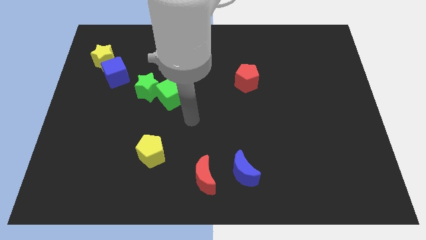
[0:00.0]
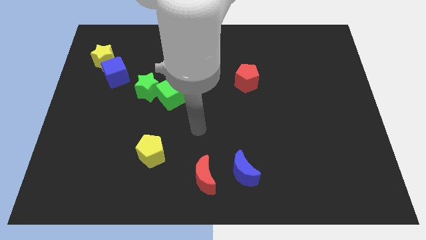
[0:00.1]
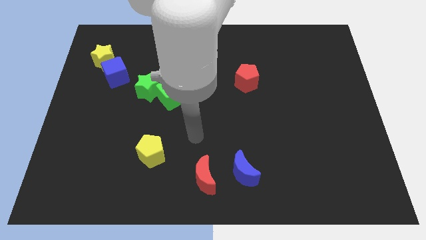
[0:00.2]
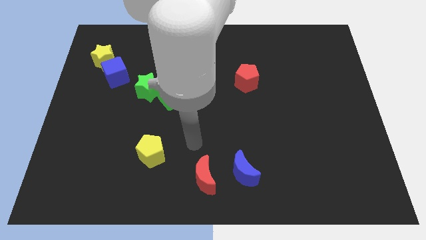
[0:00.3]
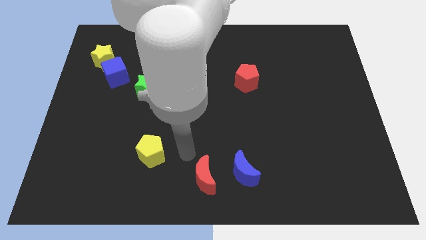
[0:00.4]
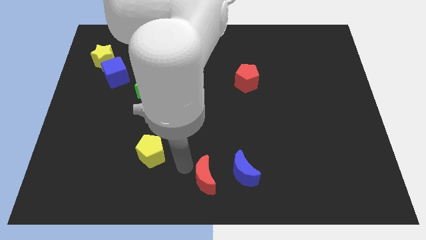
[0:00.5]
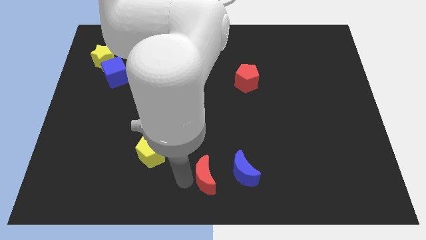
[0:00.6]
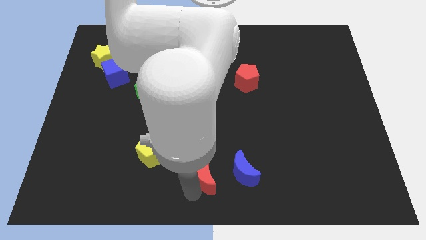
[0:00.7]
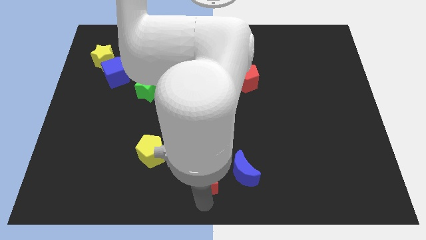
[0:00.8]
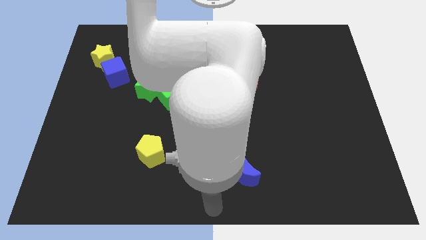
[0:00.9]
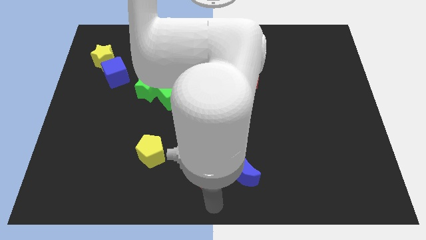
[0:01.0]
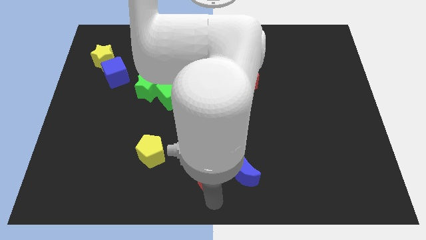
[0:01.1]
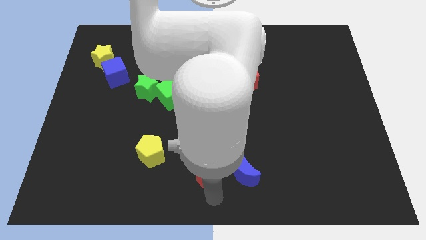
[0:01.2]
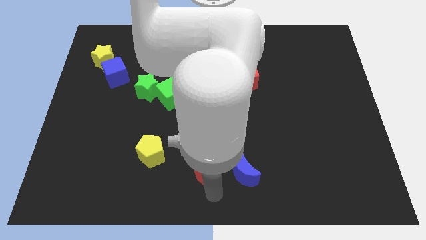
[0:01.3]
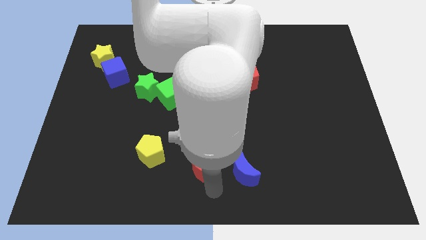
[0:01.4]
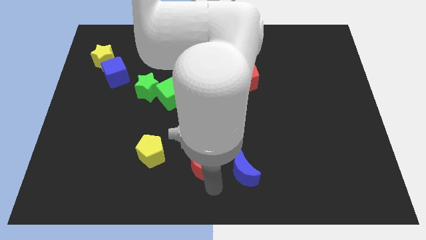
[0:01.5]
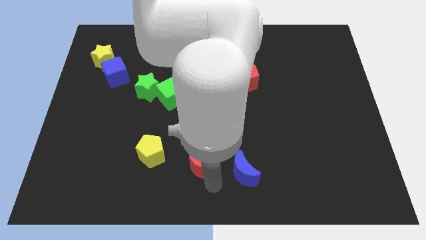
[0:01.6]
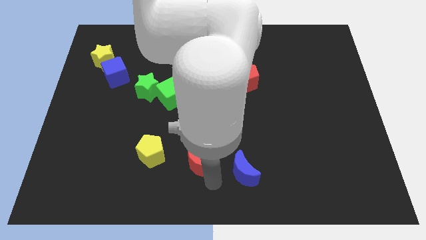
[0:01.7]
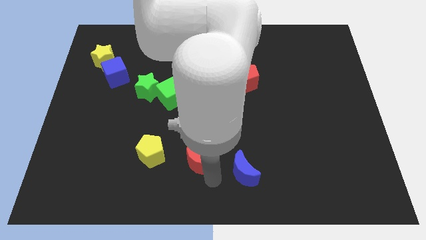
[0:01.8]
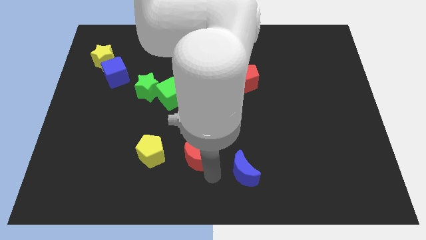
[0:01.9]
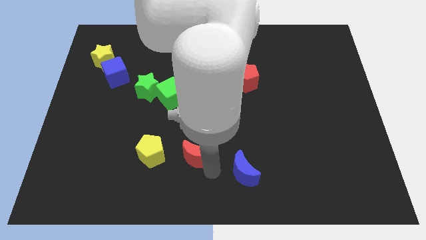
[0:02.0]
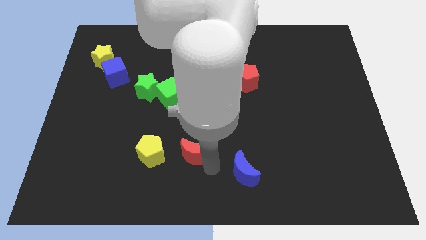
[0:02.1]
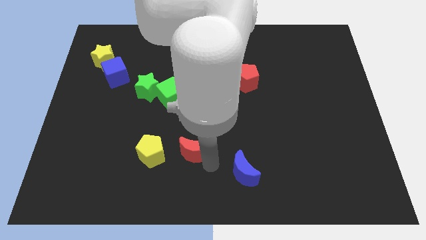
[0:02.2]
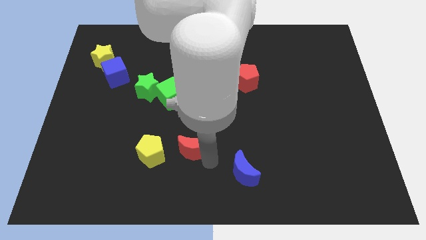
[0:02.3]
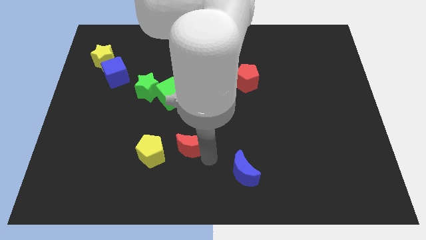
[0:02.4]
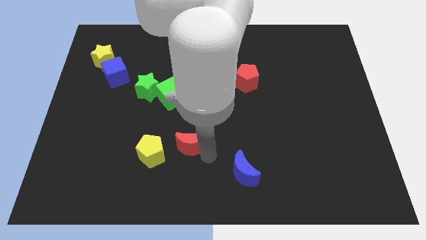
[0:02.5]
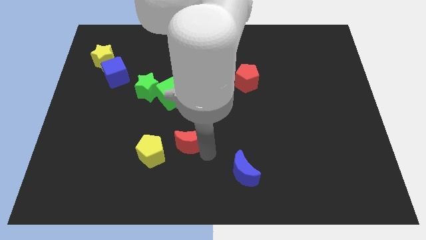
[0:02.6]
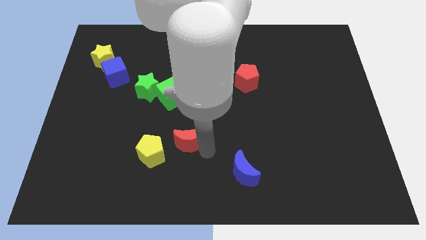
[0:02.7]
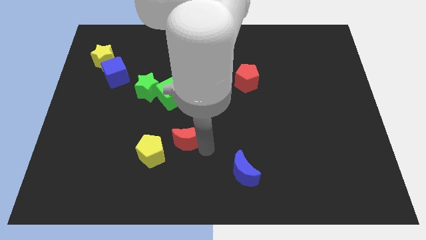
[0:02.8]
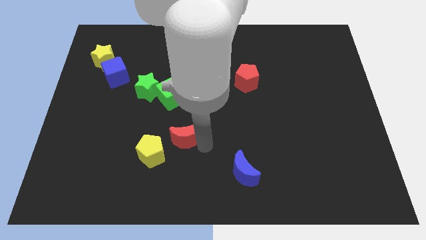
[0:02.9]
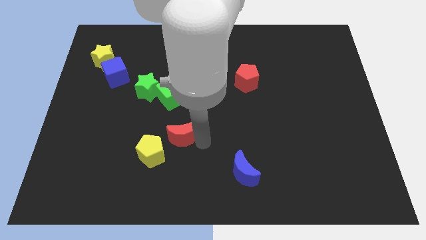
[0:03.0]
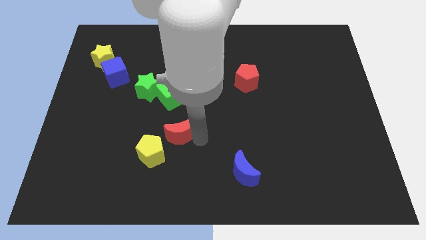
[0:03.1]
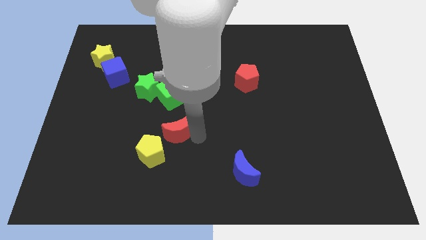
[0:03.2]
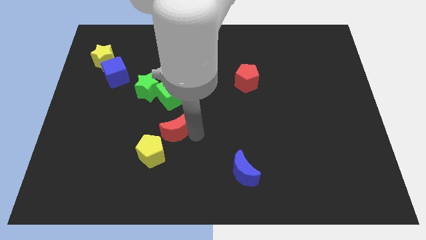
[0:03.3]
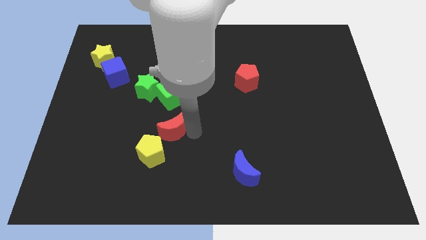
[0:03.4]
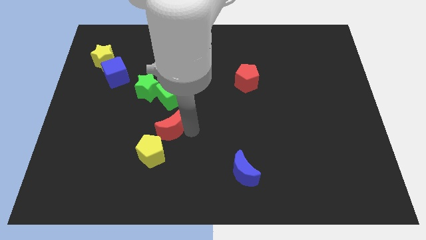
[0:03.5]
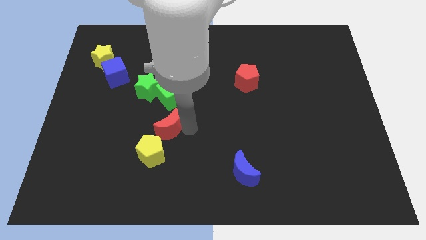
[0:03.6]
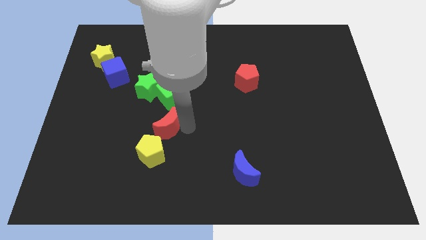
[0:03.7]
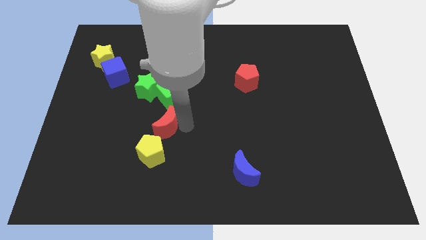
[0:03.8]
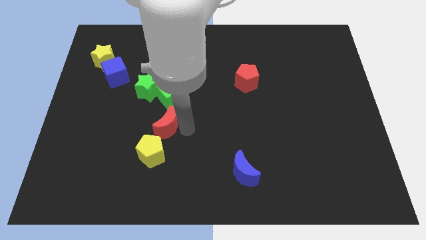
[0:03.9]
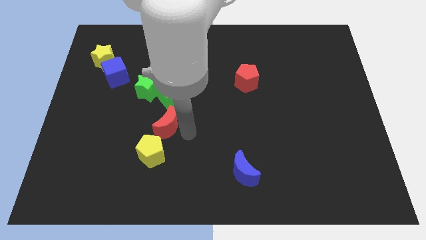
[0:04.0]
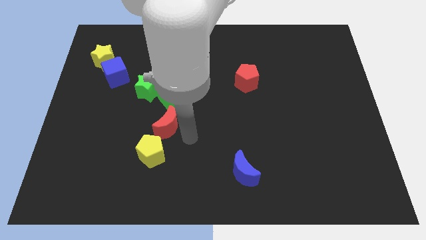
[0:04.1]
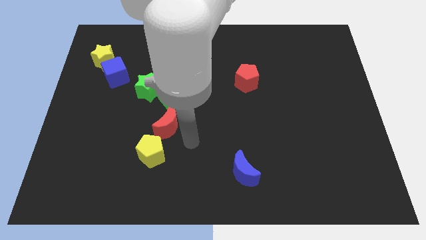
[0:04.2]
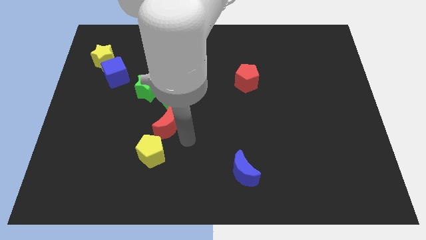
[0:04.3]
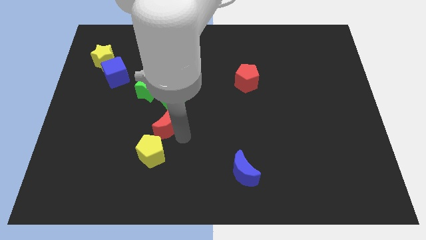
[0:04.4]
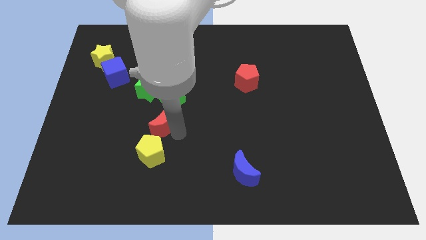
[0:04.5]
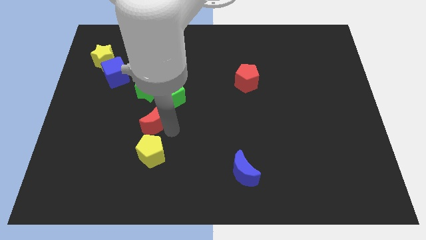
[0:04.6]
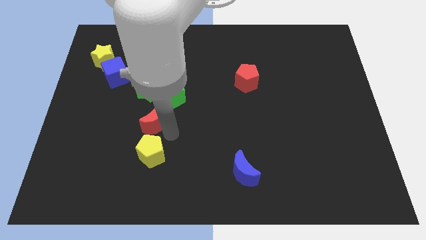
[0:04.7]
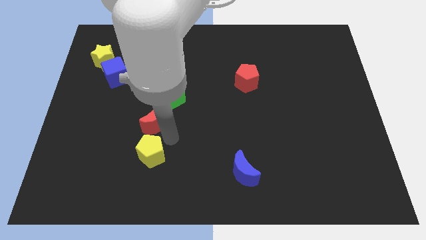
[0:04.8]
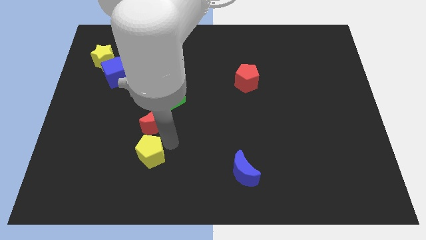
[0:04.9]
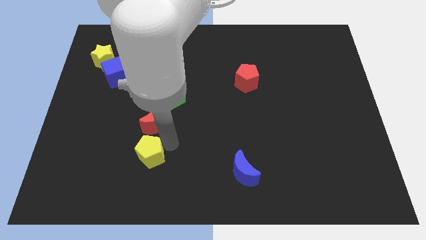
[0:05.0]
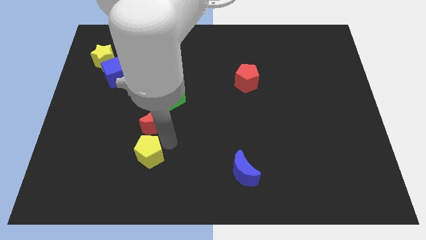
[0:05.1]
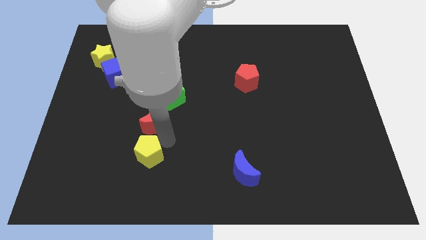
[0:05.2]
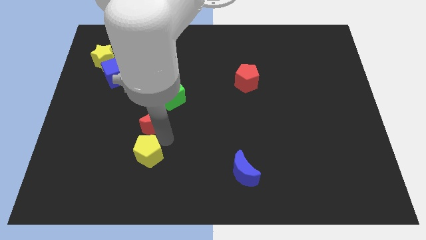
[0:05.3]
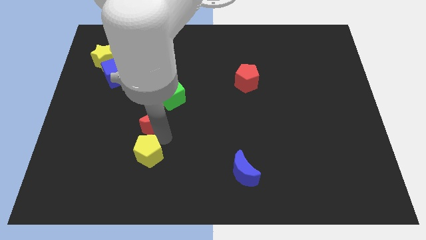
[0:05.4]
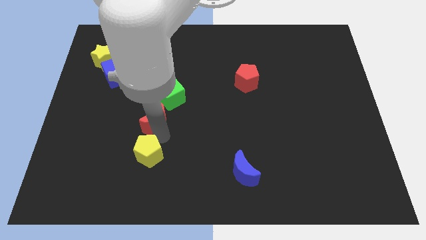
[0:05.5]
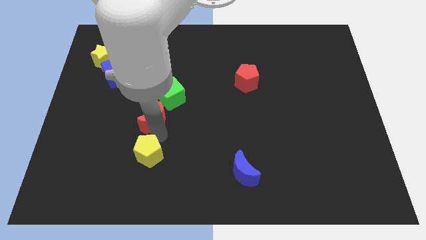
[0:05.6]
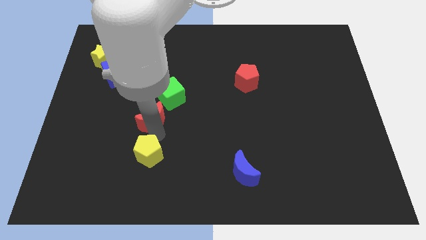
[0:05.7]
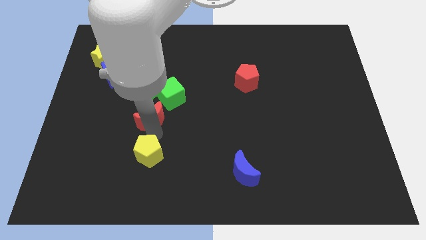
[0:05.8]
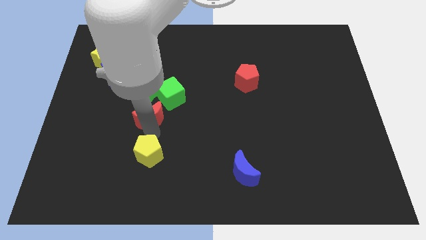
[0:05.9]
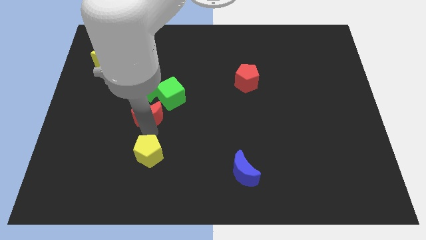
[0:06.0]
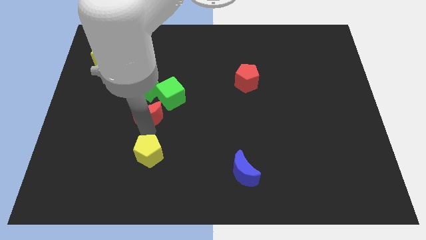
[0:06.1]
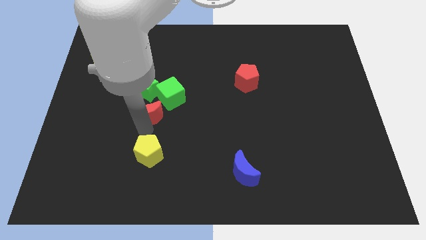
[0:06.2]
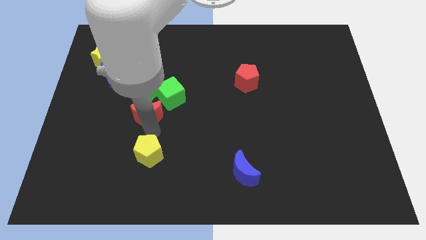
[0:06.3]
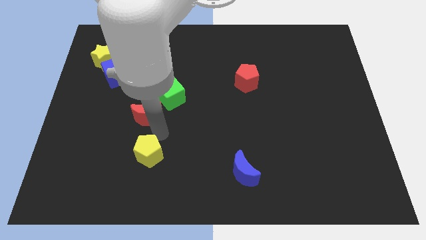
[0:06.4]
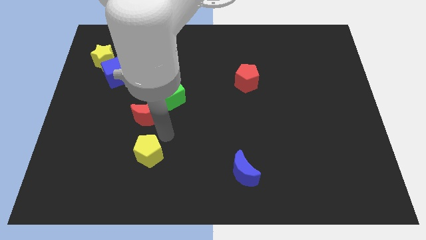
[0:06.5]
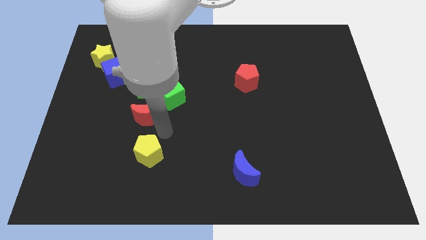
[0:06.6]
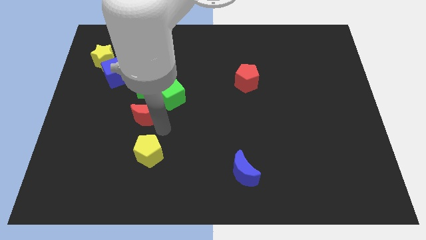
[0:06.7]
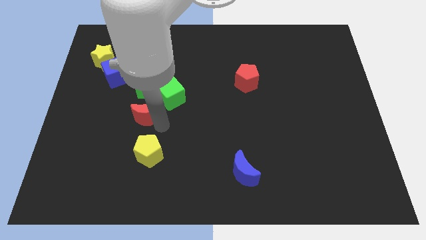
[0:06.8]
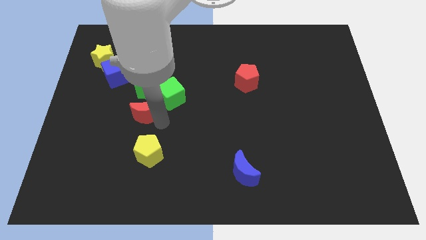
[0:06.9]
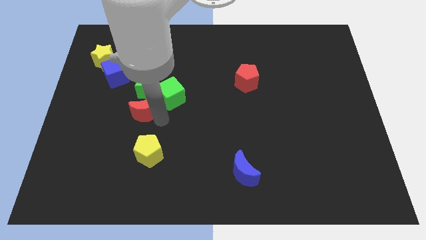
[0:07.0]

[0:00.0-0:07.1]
push the red moon left of the green cube

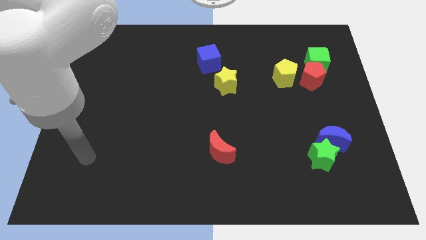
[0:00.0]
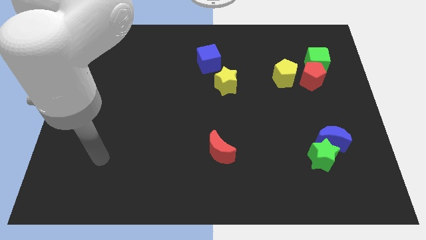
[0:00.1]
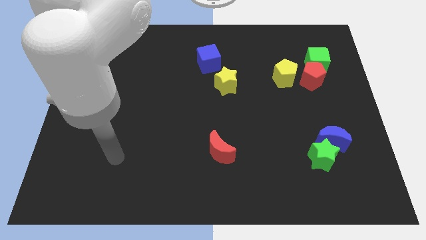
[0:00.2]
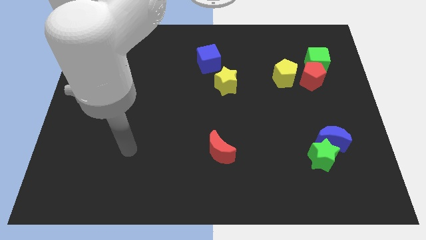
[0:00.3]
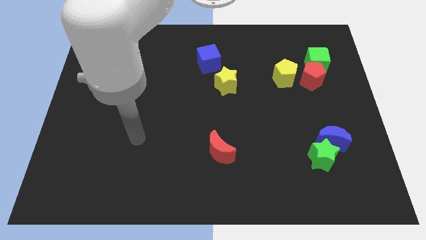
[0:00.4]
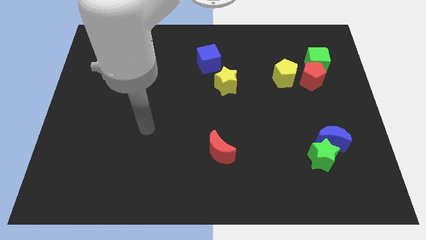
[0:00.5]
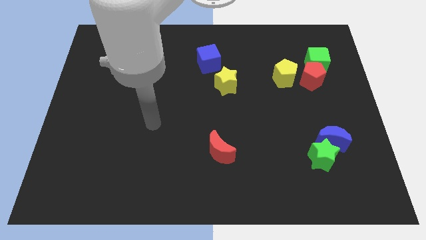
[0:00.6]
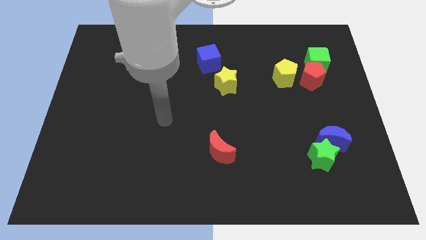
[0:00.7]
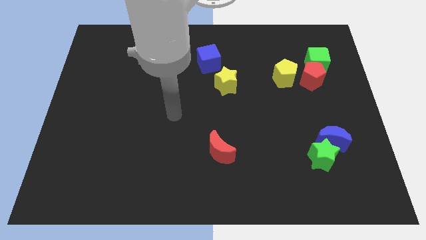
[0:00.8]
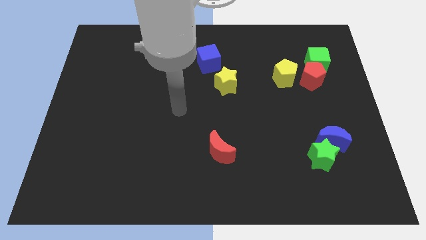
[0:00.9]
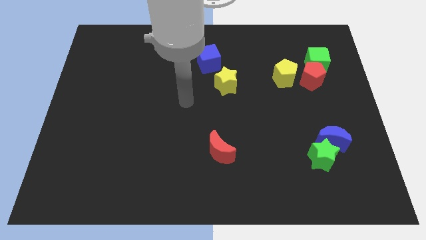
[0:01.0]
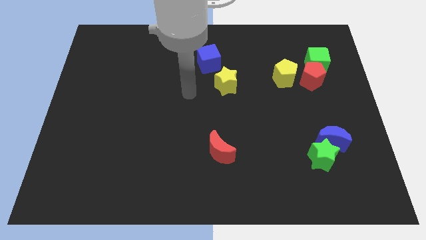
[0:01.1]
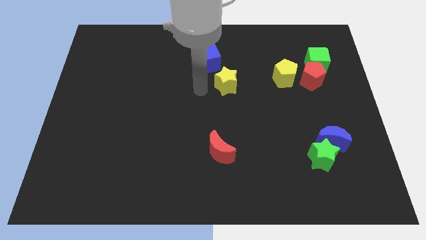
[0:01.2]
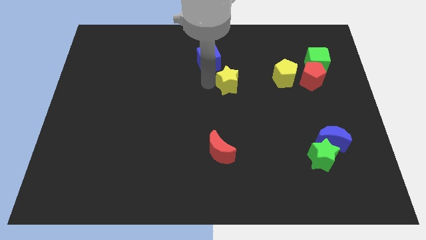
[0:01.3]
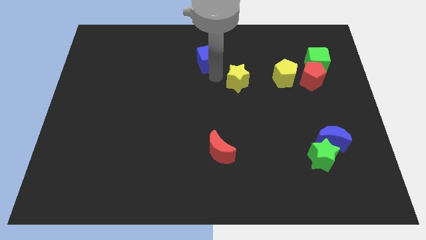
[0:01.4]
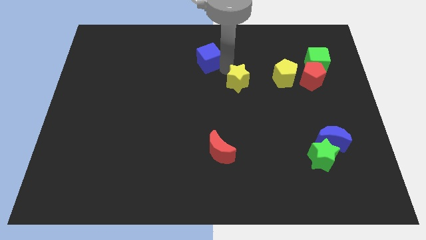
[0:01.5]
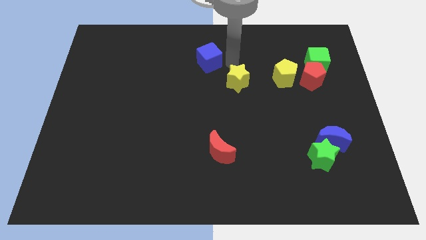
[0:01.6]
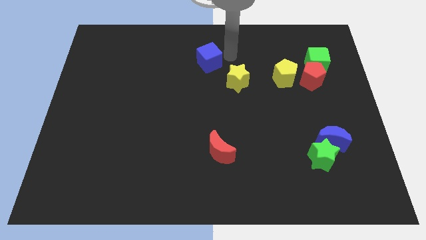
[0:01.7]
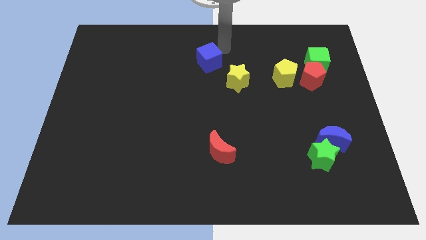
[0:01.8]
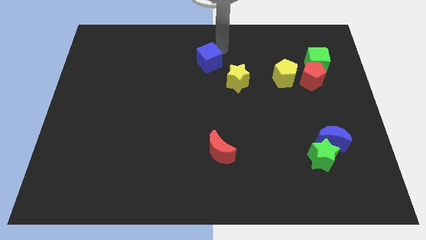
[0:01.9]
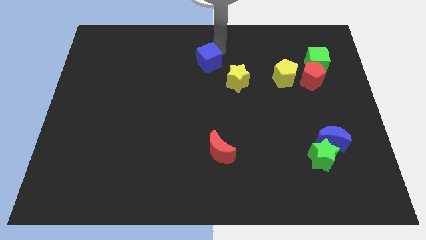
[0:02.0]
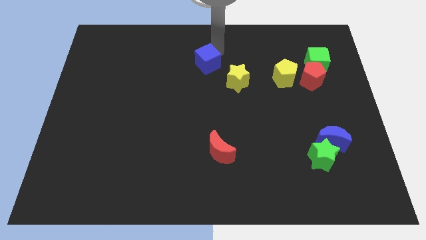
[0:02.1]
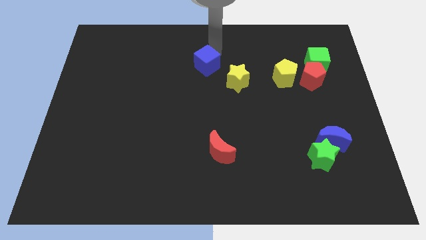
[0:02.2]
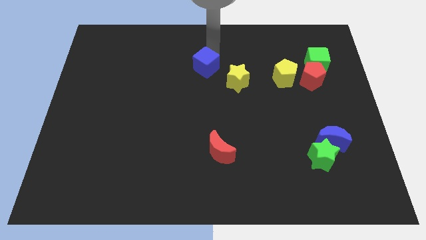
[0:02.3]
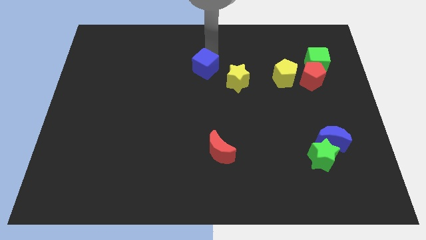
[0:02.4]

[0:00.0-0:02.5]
slide the blue cube left of the yellow star
